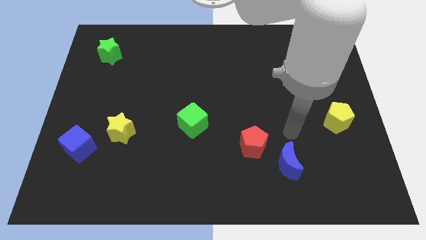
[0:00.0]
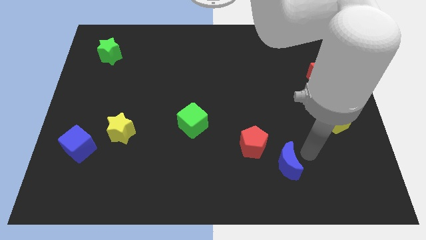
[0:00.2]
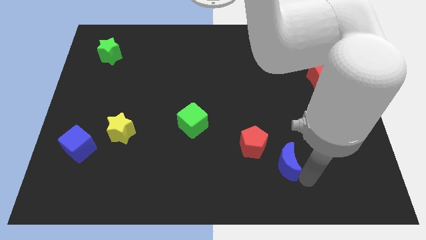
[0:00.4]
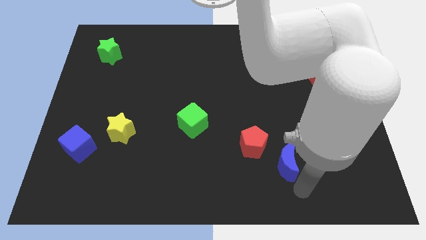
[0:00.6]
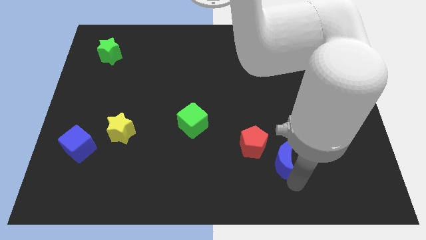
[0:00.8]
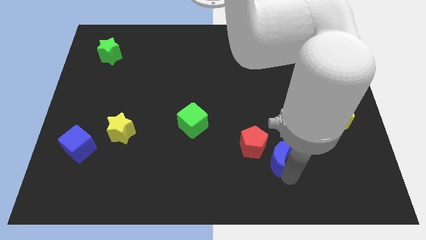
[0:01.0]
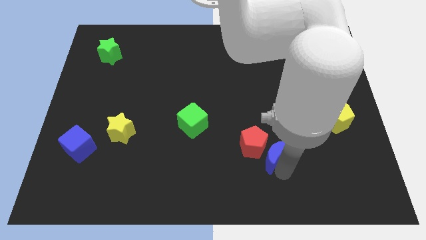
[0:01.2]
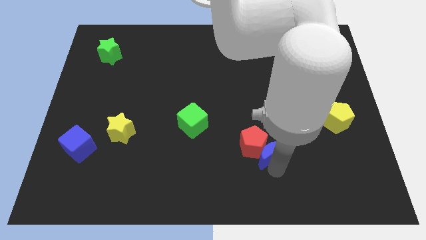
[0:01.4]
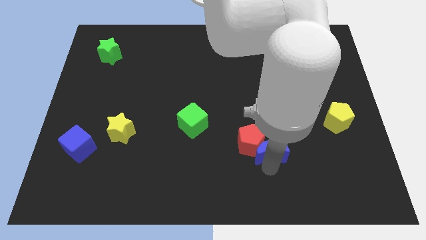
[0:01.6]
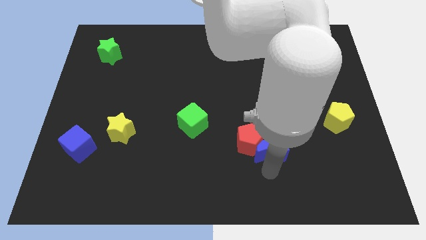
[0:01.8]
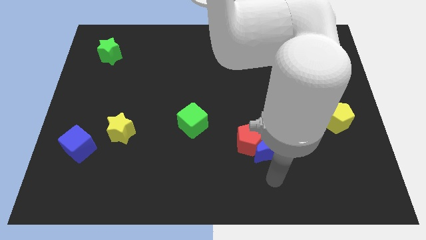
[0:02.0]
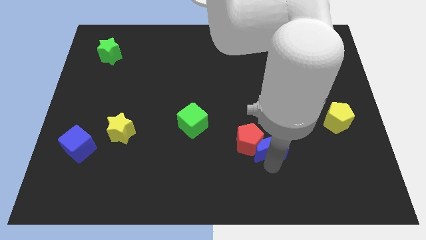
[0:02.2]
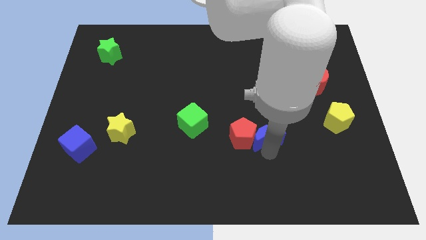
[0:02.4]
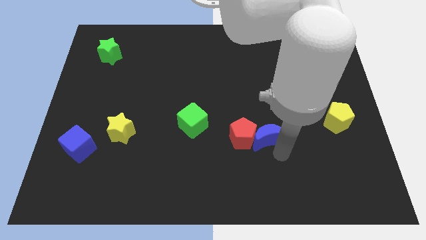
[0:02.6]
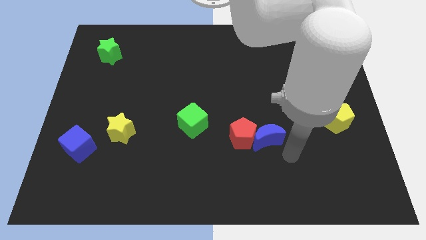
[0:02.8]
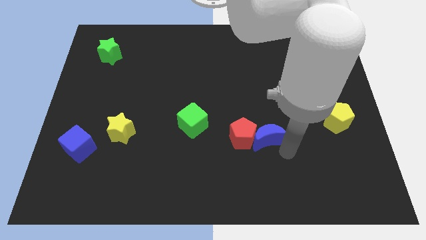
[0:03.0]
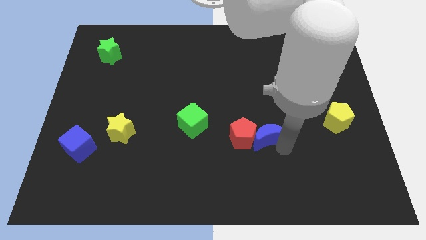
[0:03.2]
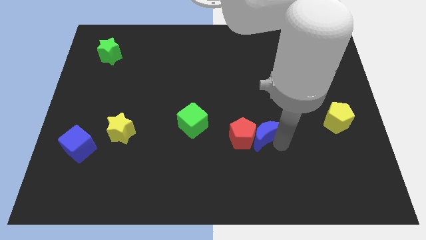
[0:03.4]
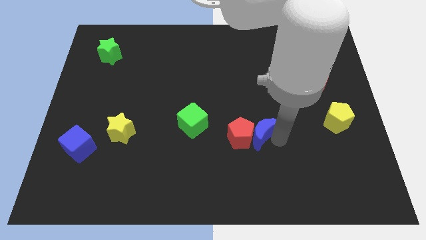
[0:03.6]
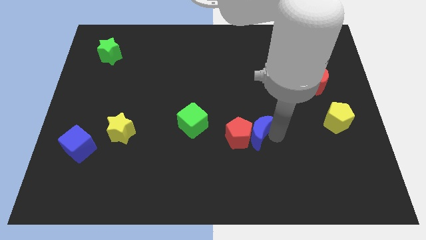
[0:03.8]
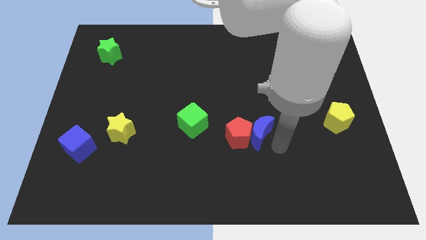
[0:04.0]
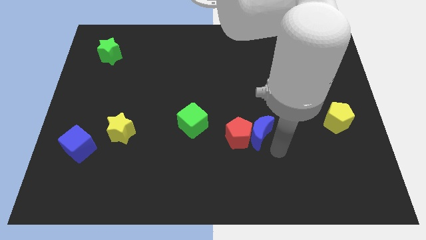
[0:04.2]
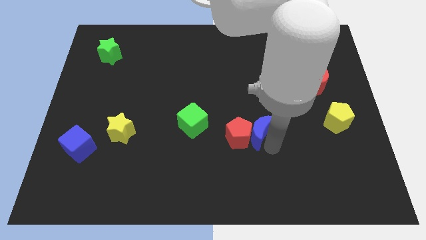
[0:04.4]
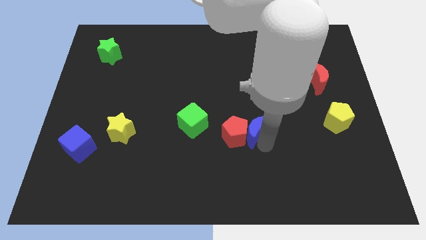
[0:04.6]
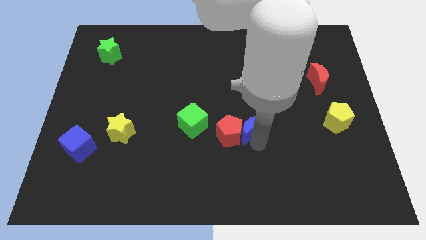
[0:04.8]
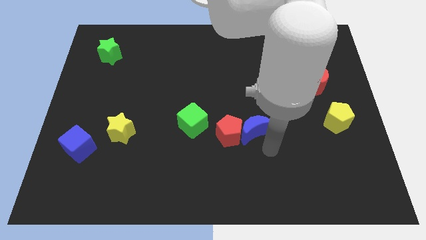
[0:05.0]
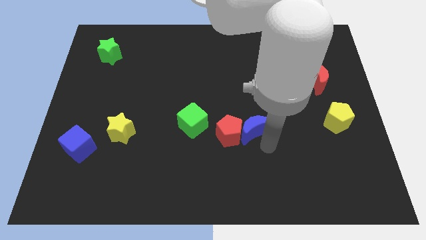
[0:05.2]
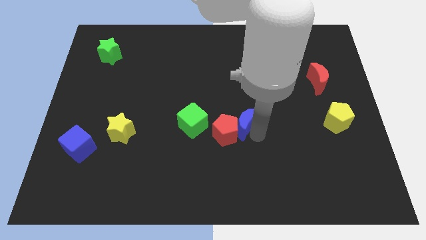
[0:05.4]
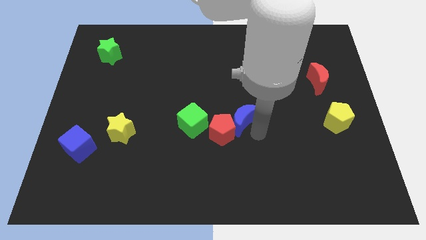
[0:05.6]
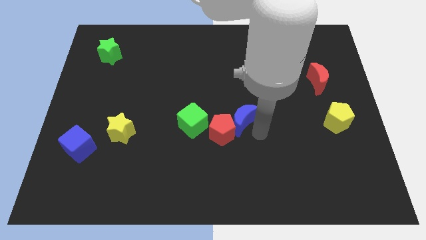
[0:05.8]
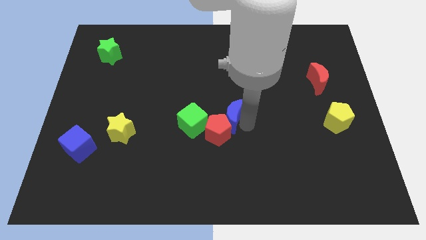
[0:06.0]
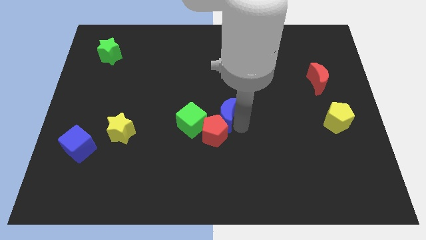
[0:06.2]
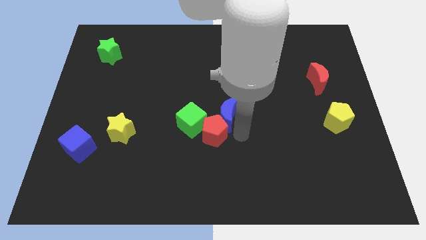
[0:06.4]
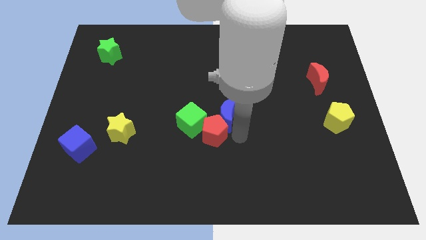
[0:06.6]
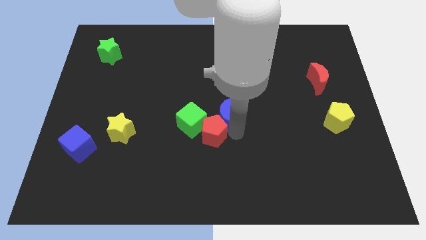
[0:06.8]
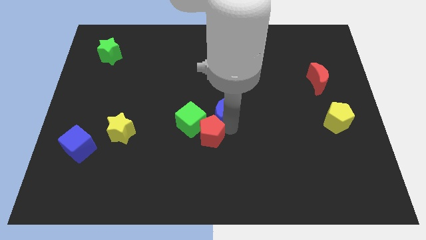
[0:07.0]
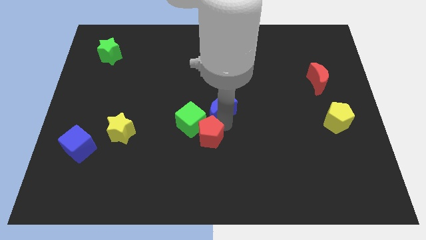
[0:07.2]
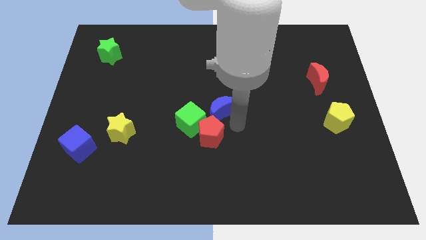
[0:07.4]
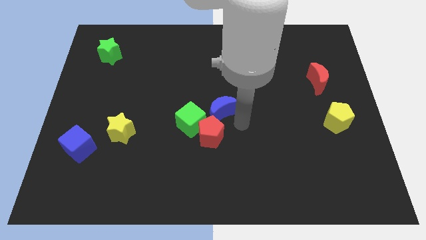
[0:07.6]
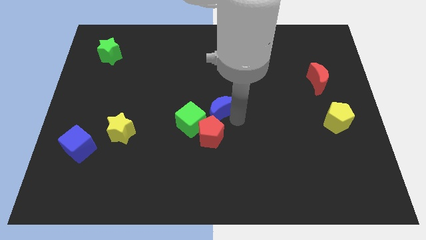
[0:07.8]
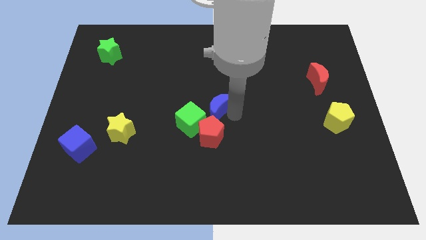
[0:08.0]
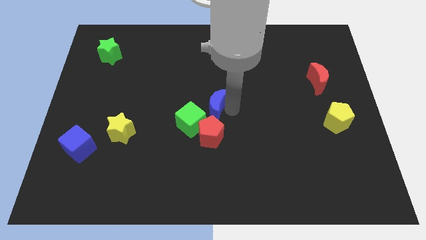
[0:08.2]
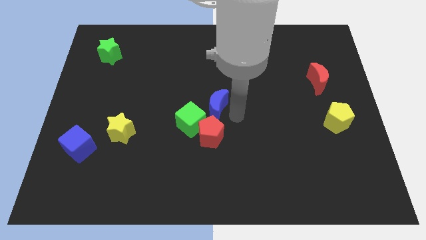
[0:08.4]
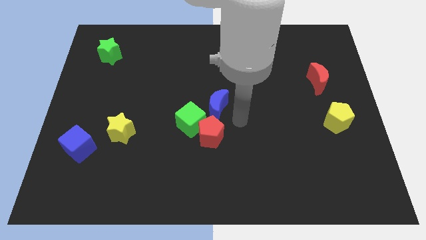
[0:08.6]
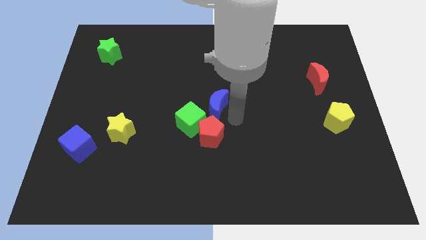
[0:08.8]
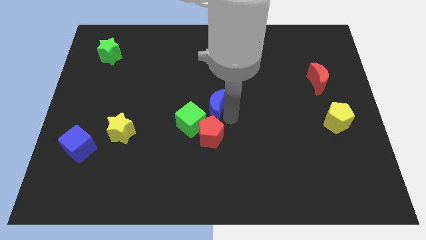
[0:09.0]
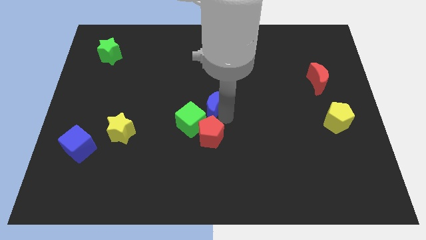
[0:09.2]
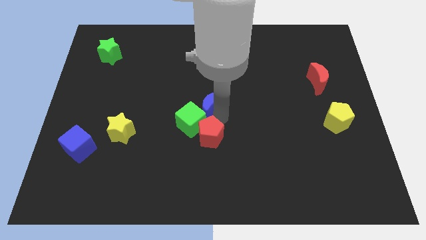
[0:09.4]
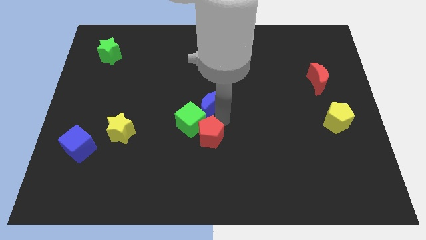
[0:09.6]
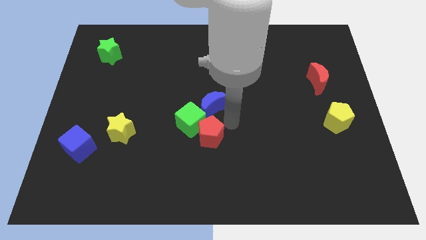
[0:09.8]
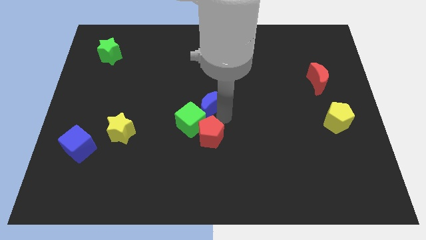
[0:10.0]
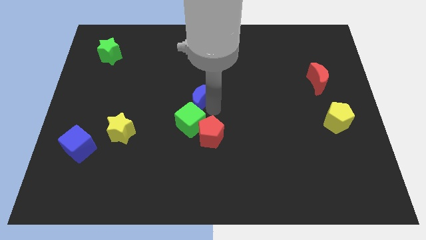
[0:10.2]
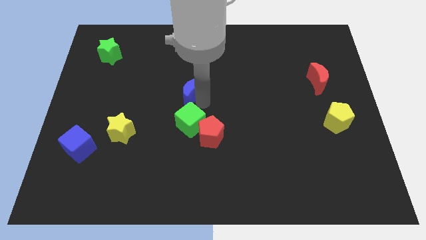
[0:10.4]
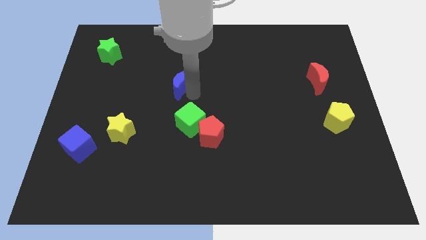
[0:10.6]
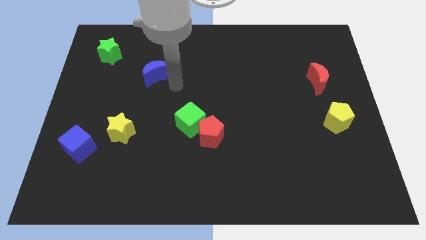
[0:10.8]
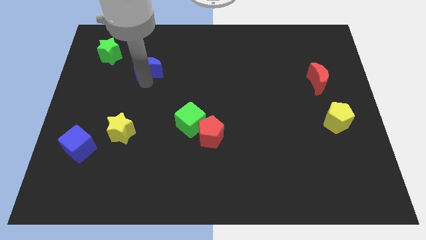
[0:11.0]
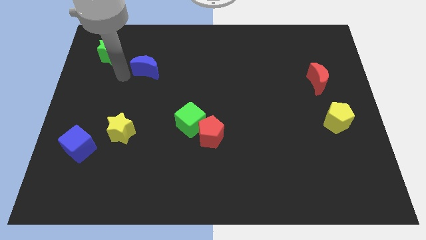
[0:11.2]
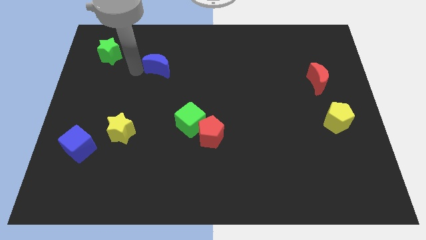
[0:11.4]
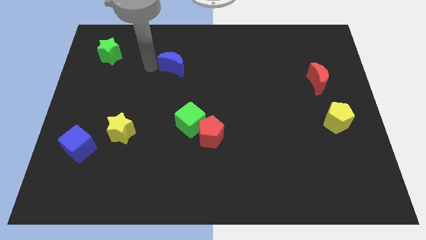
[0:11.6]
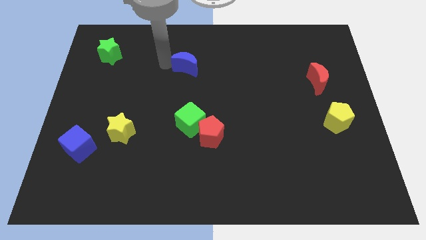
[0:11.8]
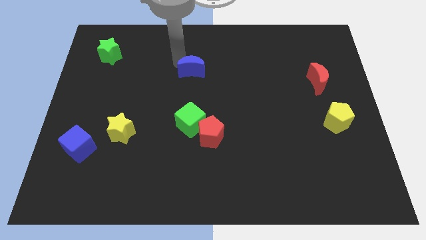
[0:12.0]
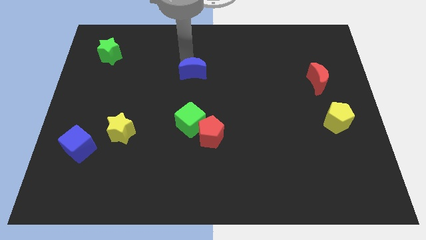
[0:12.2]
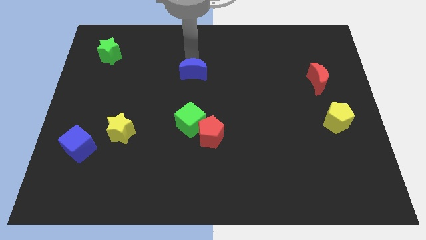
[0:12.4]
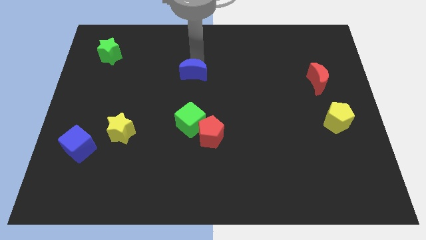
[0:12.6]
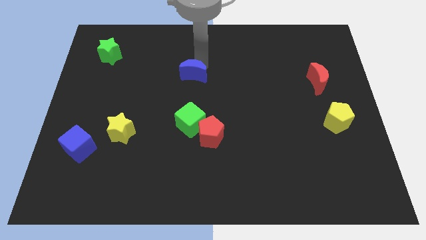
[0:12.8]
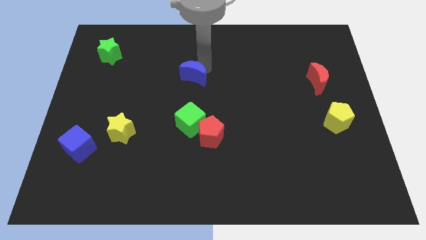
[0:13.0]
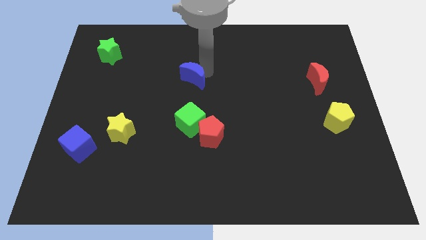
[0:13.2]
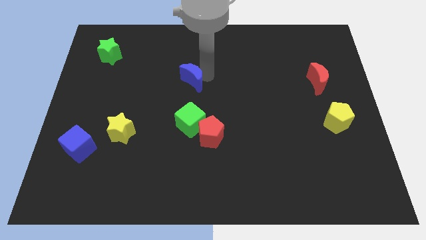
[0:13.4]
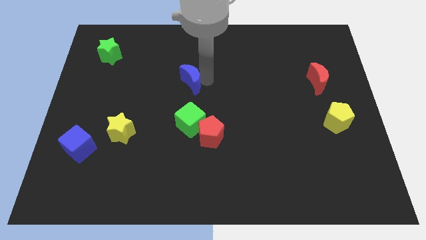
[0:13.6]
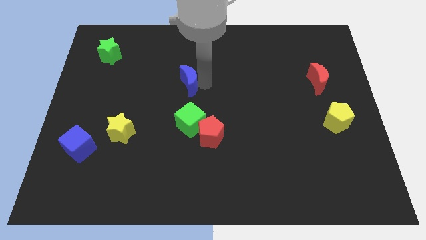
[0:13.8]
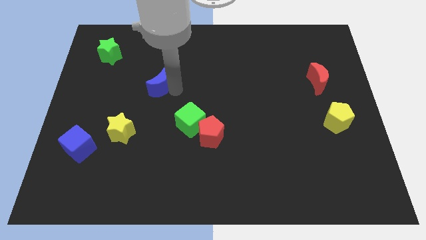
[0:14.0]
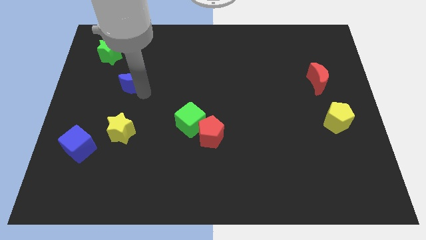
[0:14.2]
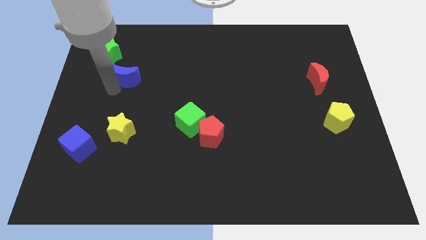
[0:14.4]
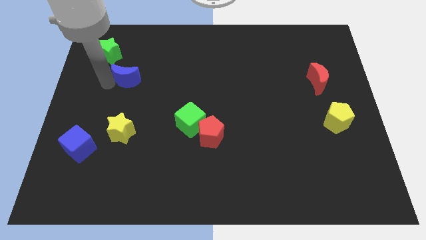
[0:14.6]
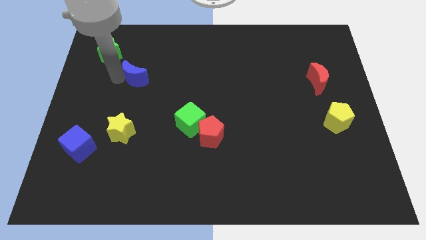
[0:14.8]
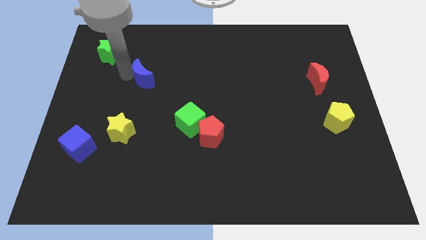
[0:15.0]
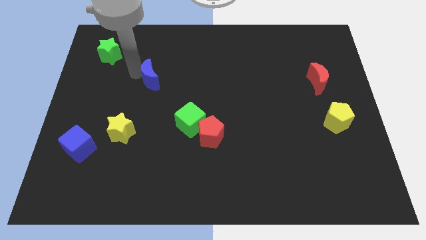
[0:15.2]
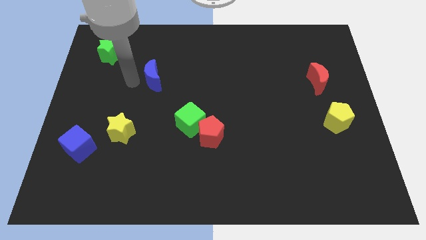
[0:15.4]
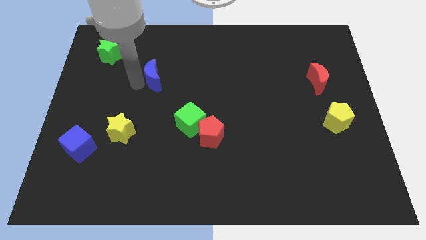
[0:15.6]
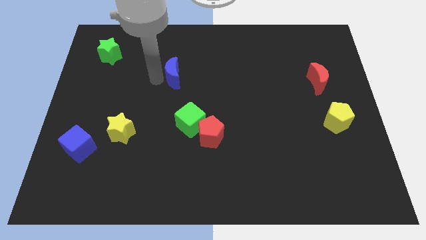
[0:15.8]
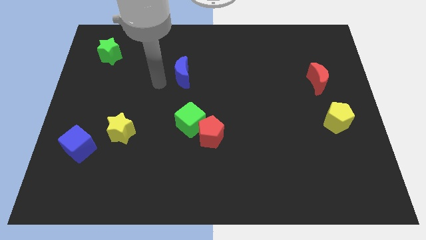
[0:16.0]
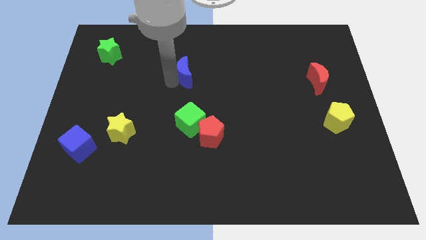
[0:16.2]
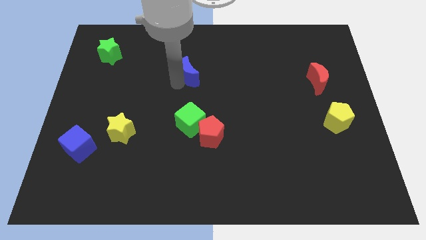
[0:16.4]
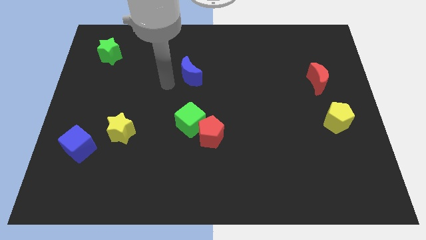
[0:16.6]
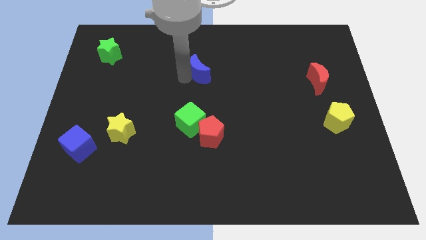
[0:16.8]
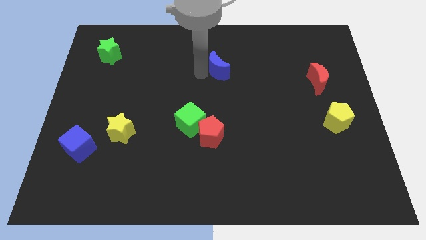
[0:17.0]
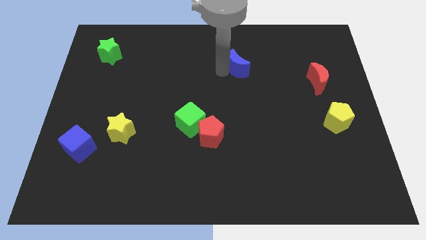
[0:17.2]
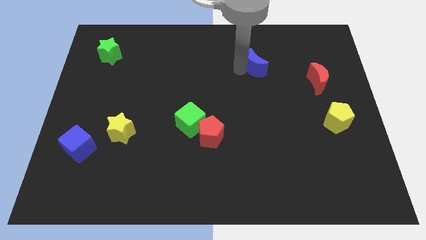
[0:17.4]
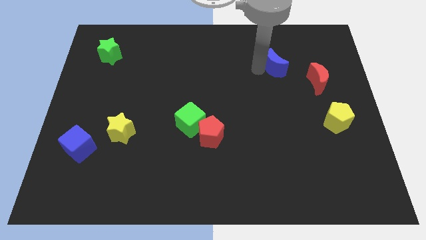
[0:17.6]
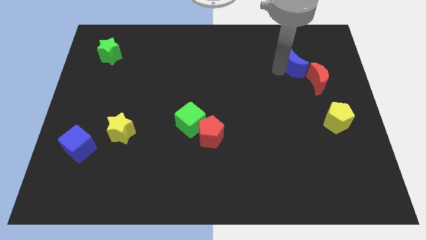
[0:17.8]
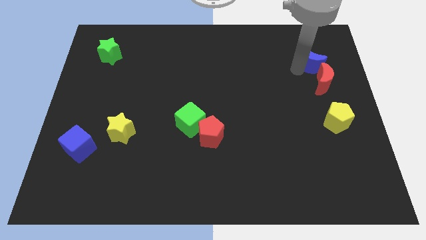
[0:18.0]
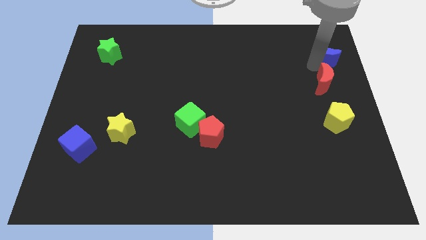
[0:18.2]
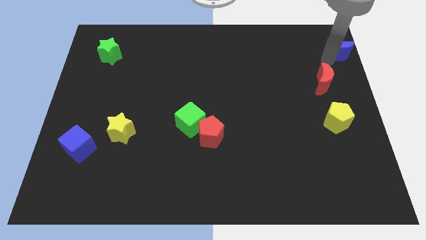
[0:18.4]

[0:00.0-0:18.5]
move the blue moon to the top right of the board
